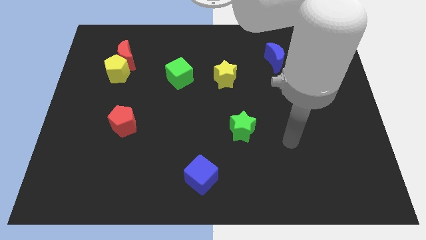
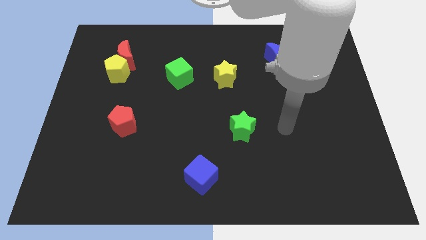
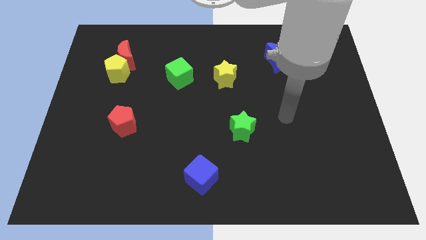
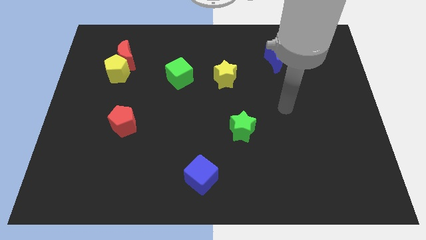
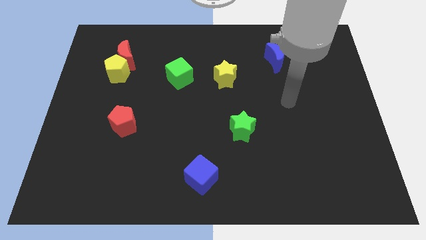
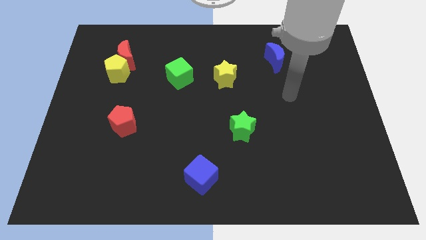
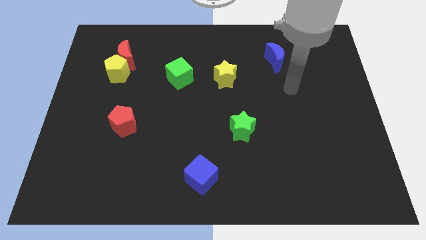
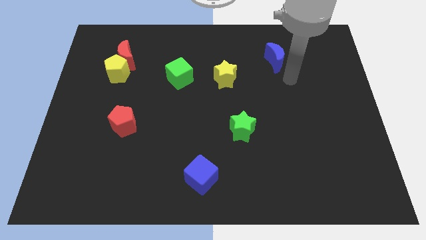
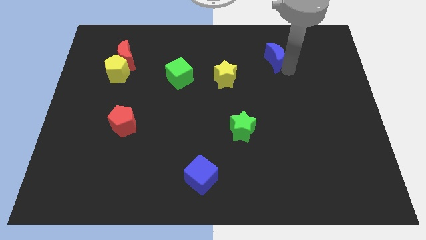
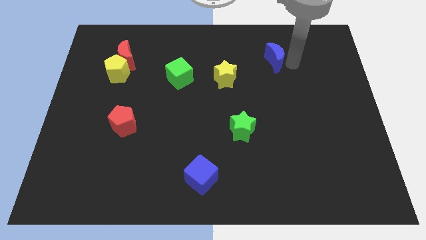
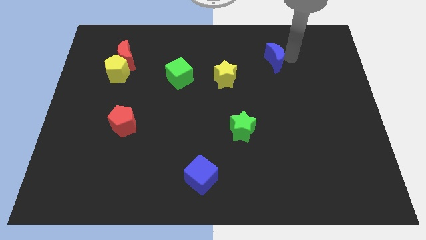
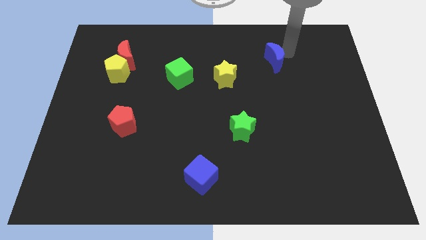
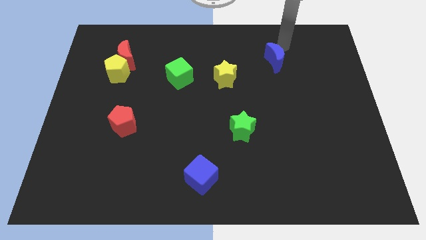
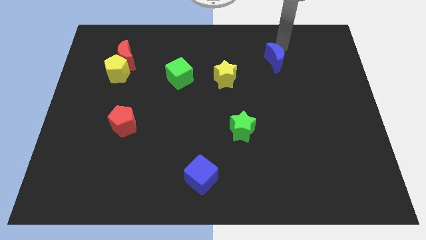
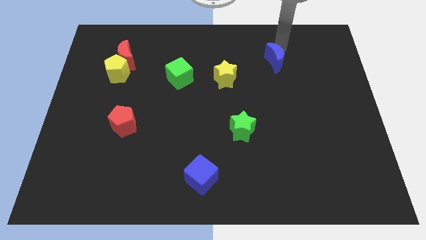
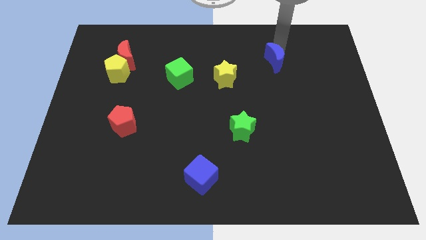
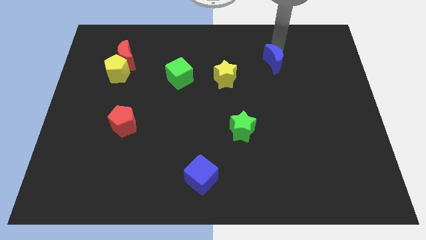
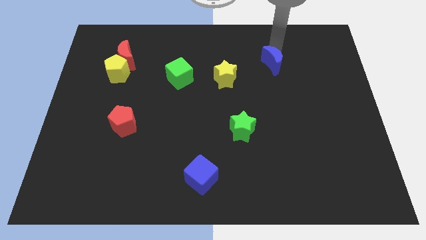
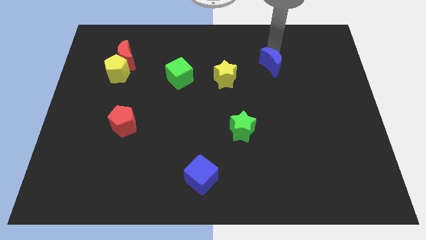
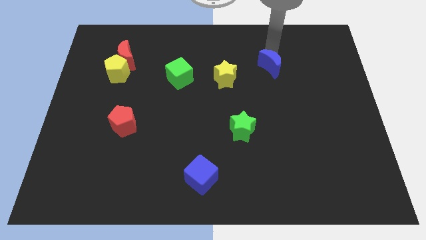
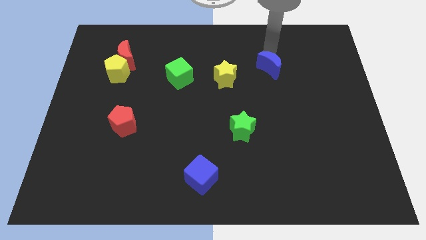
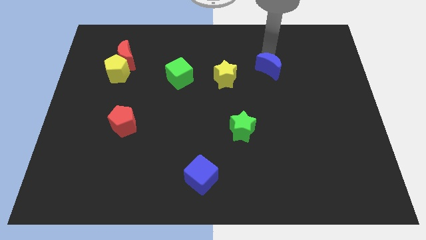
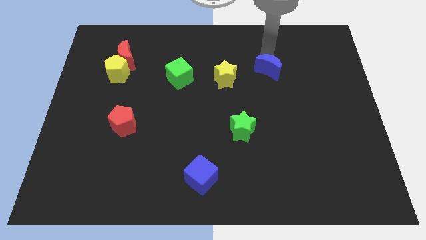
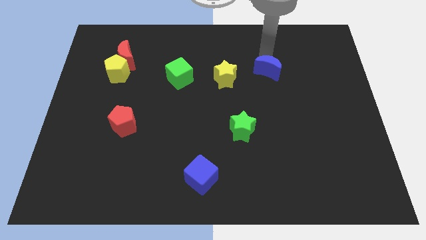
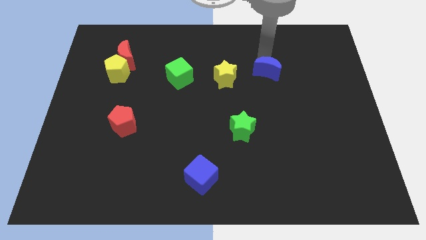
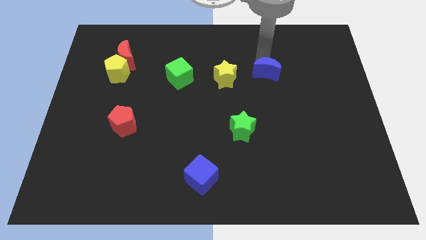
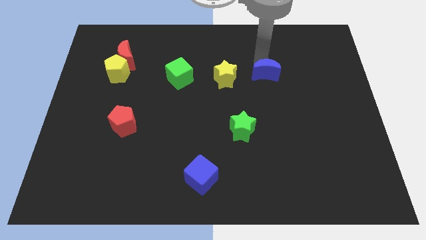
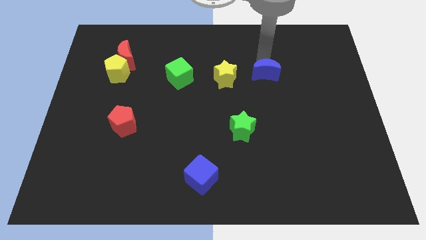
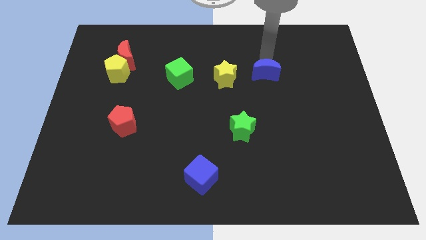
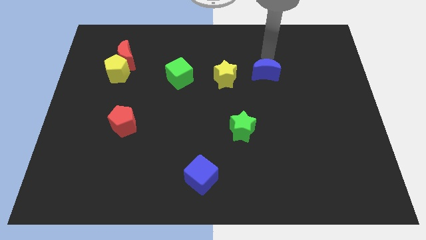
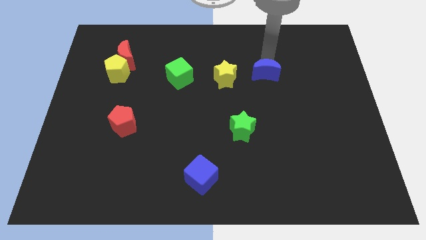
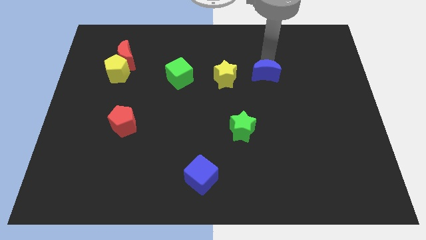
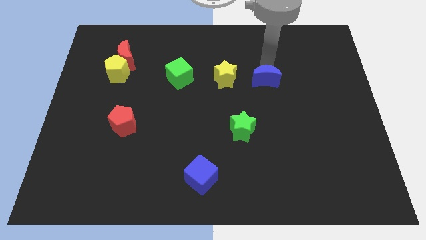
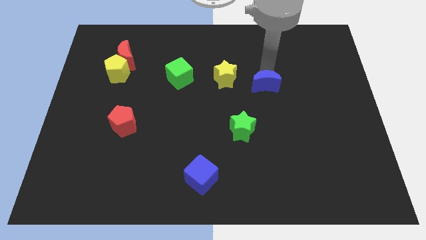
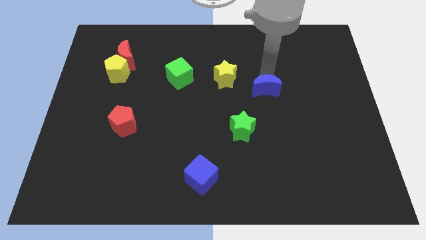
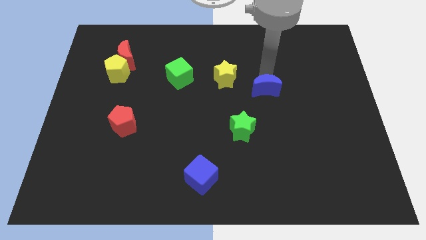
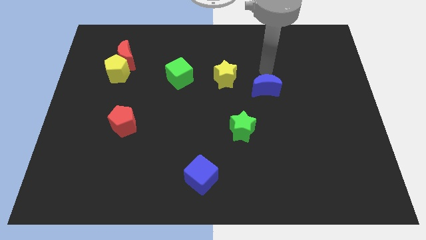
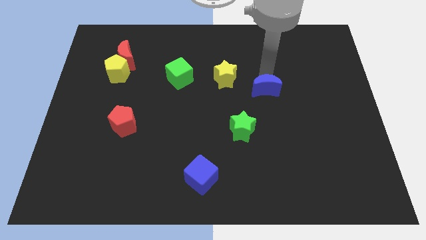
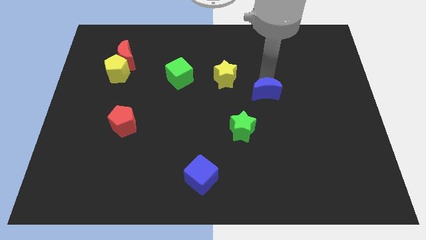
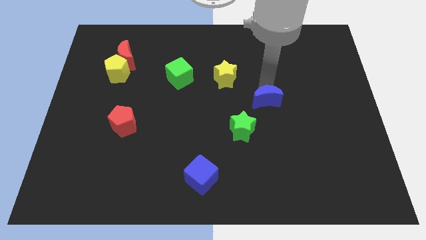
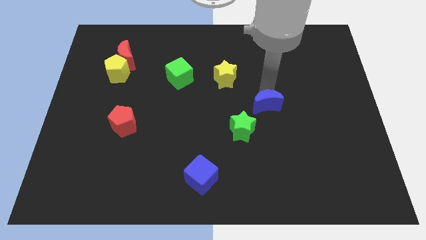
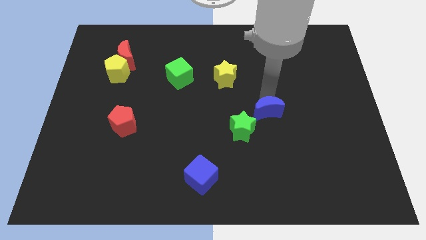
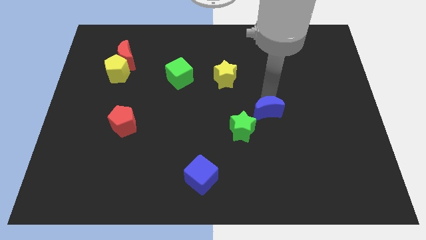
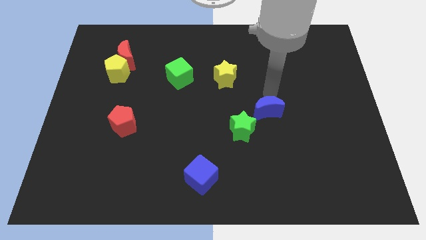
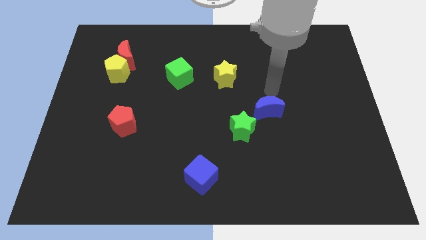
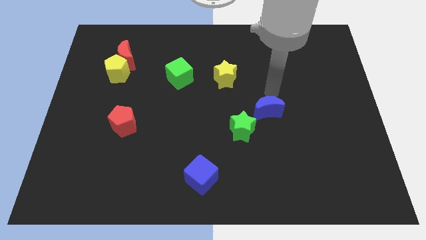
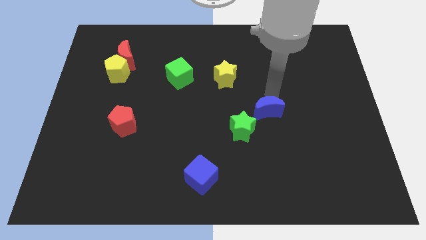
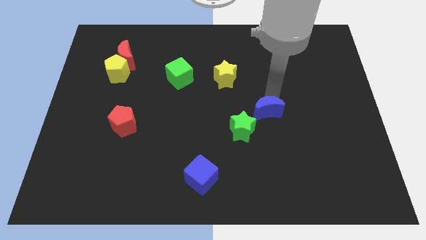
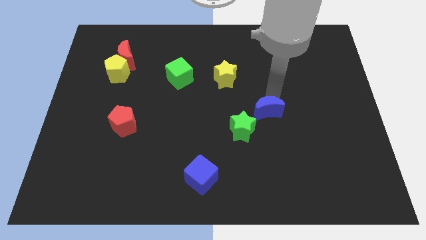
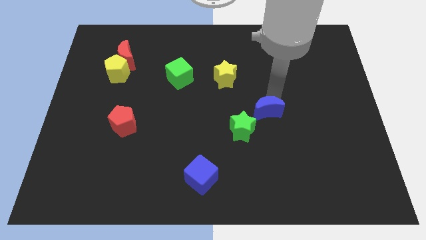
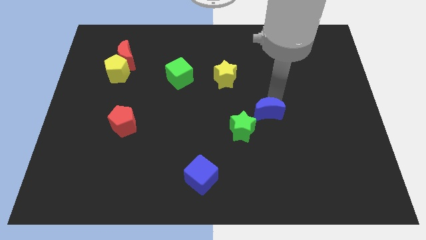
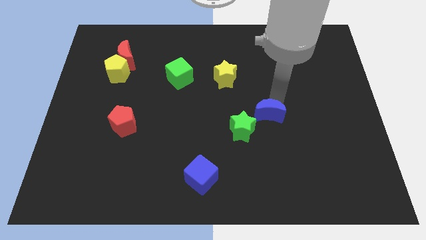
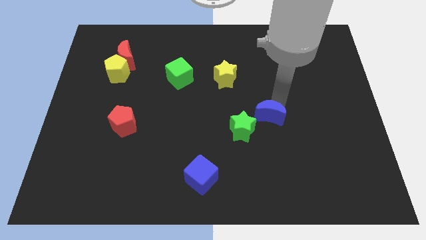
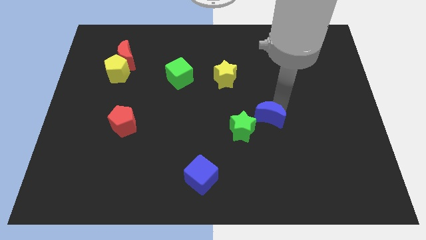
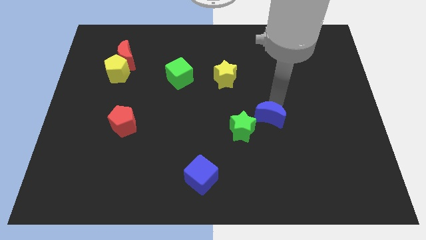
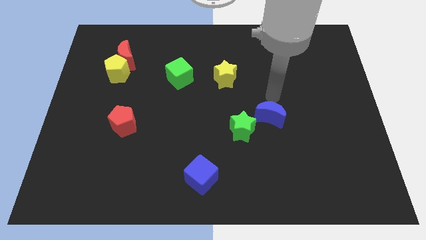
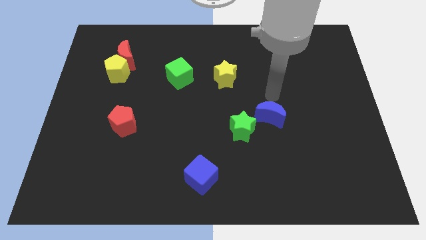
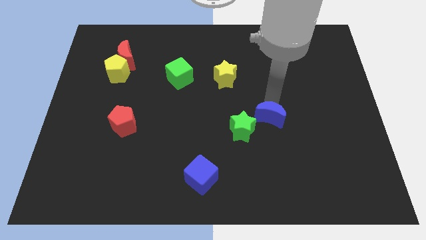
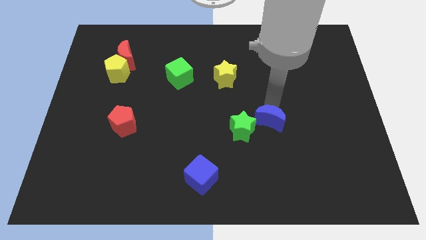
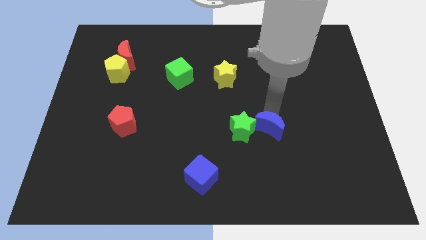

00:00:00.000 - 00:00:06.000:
move the blue moon diagonally down and to the right of the green star

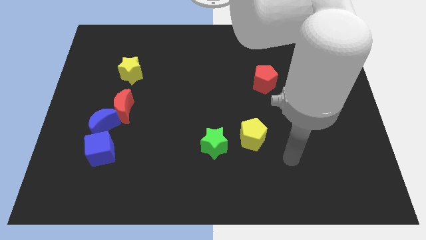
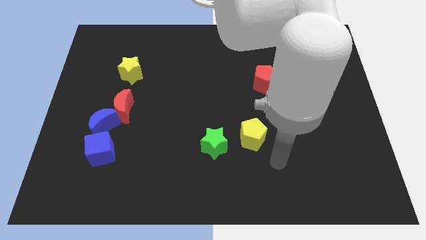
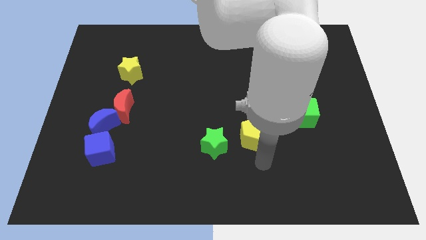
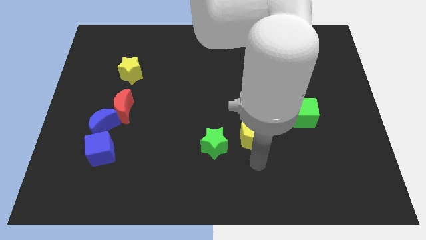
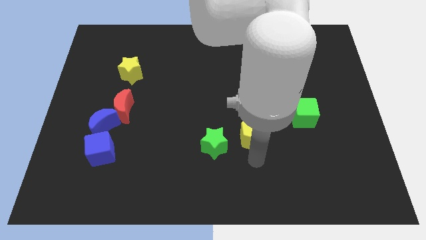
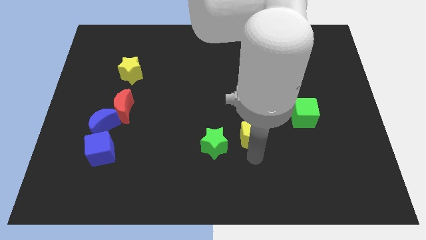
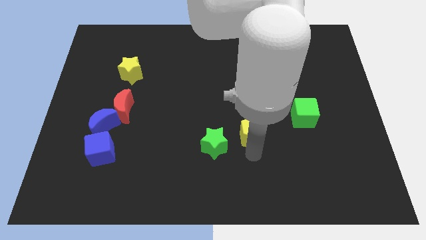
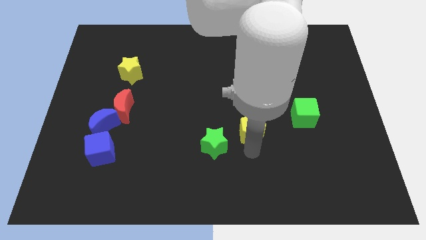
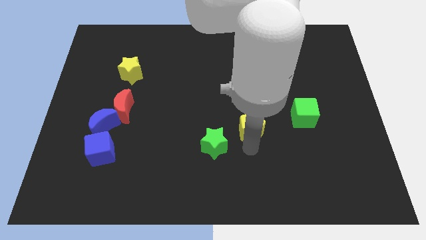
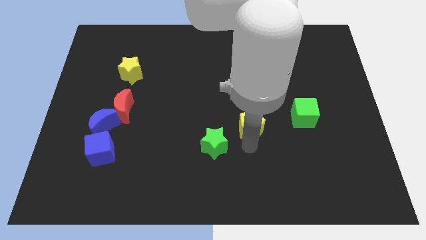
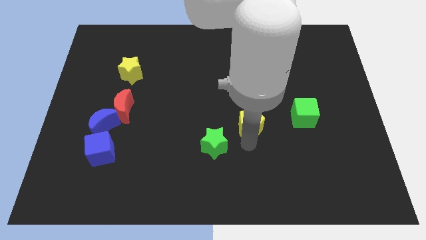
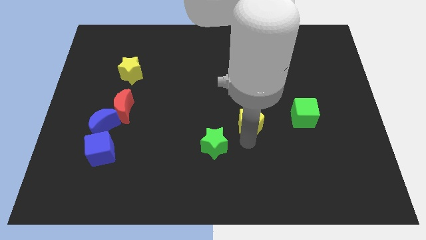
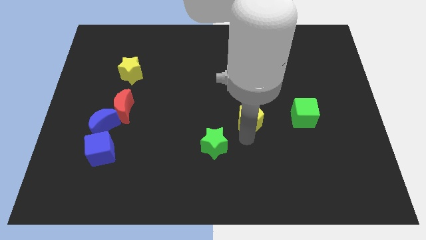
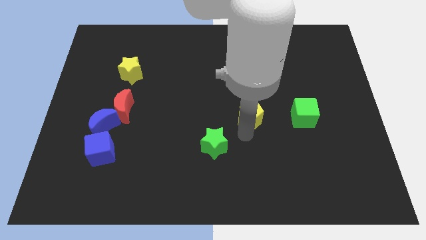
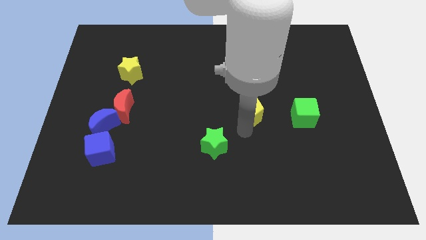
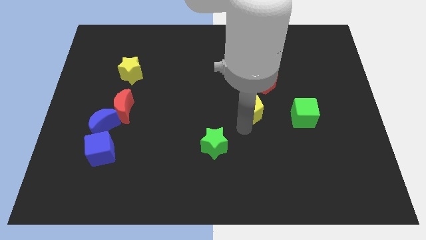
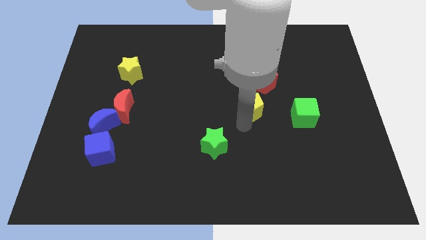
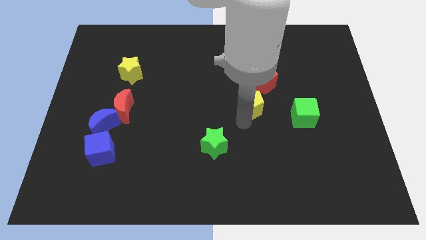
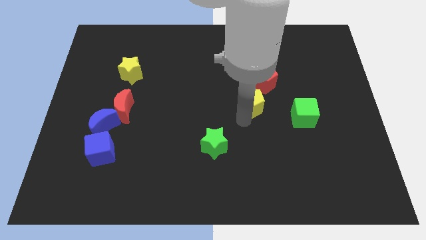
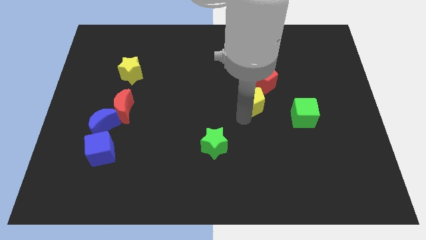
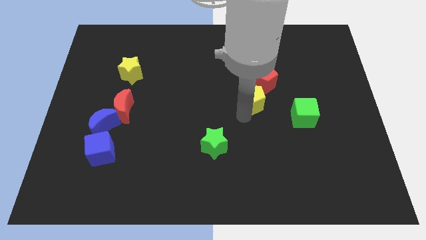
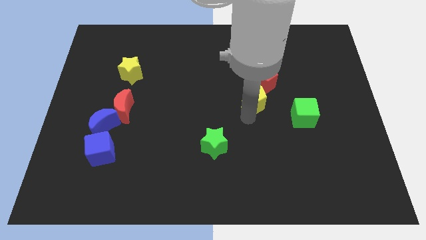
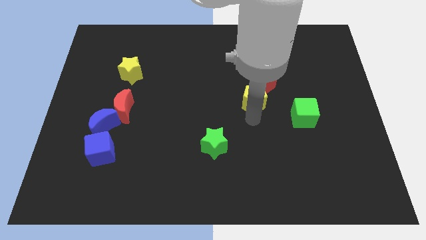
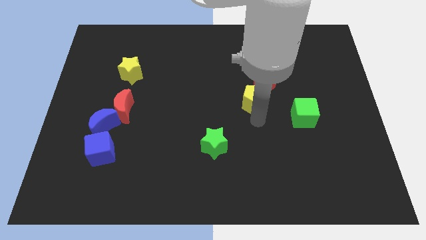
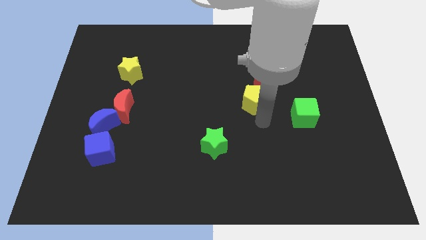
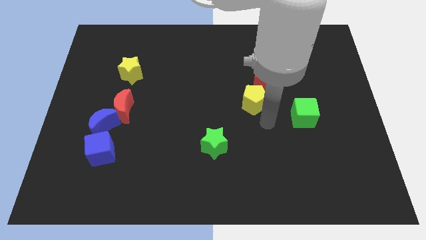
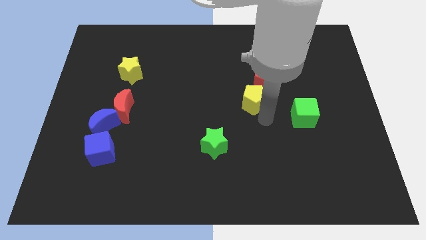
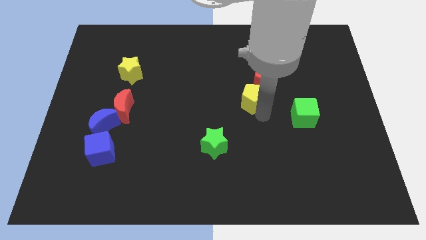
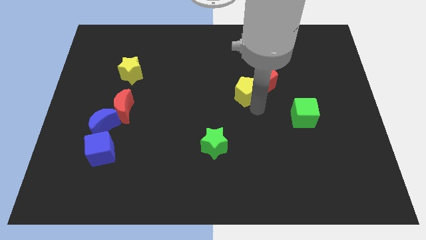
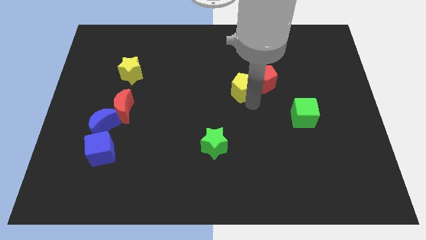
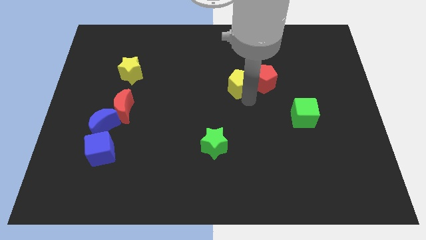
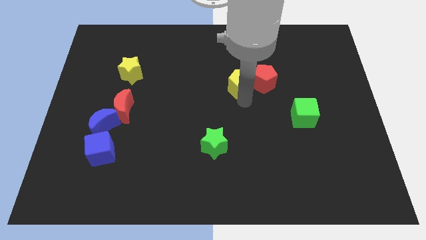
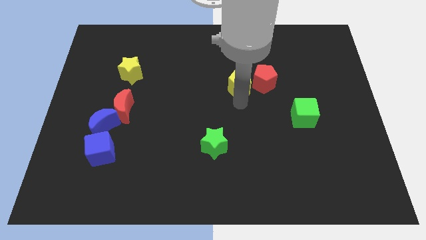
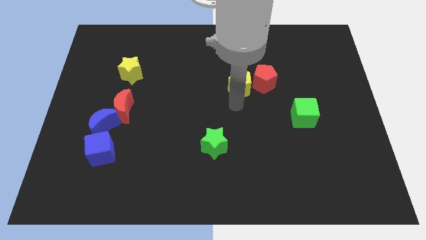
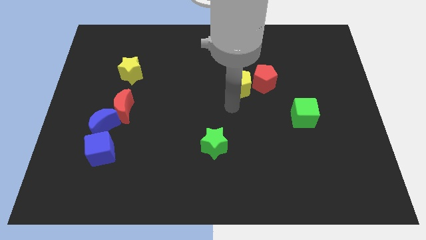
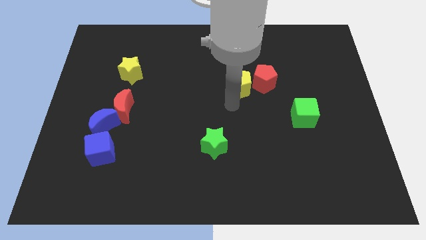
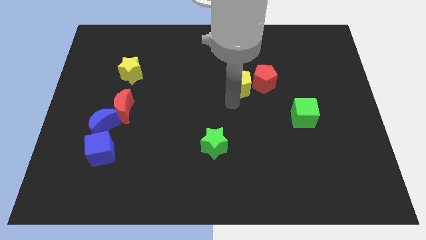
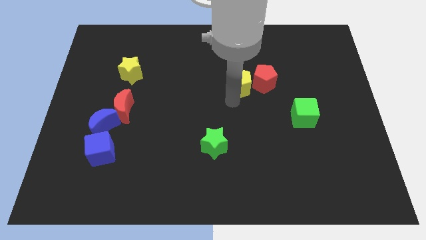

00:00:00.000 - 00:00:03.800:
move the yellow pentagon diagonally up and to the left of the red pentagon
